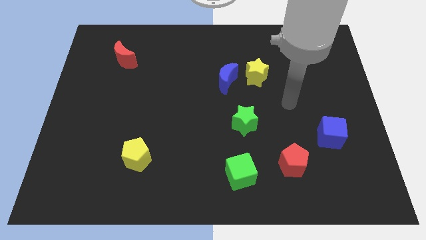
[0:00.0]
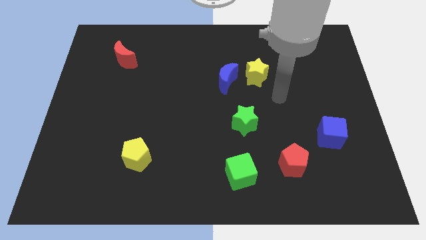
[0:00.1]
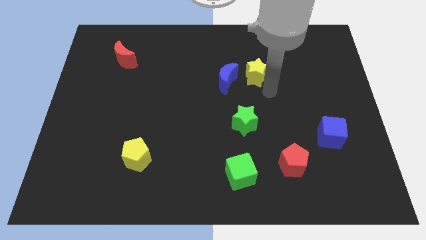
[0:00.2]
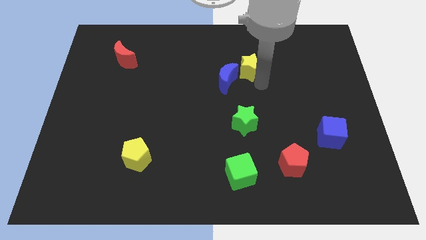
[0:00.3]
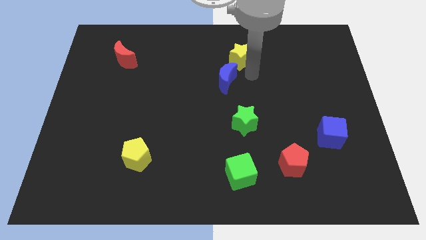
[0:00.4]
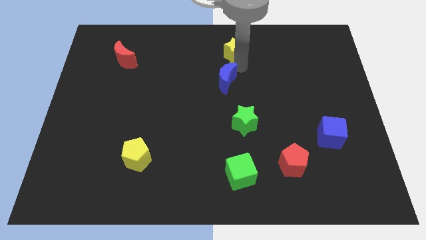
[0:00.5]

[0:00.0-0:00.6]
move the blue moon away from the yellow star

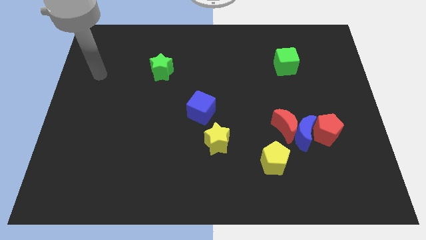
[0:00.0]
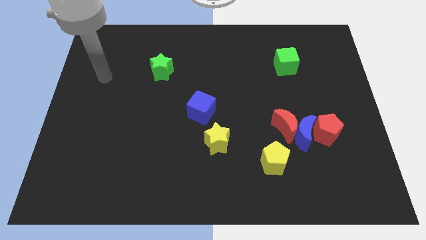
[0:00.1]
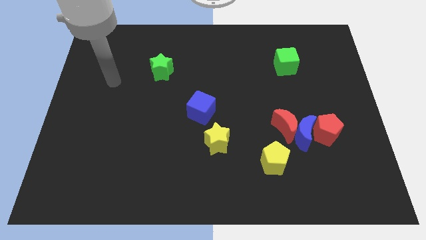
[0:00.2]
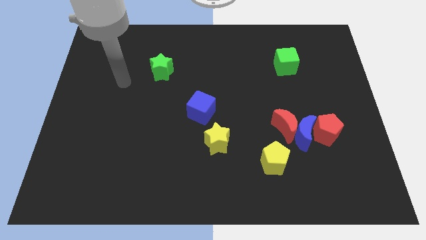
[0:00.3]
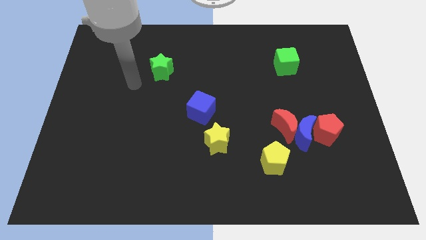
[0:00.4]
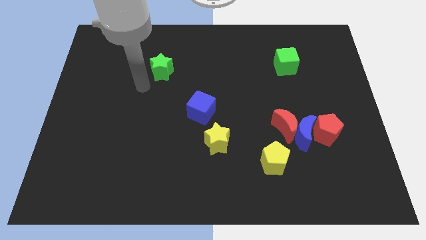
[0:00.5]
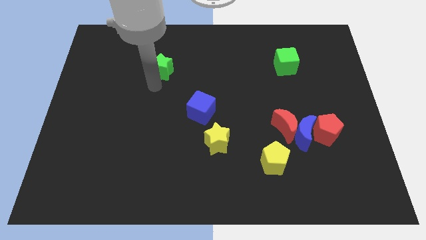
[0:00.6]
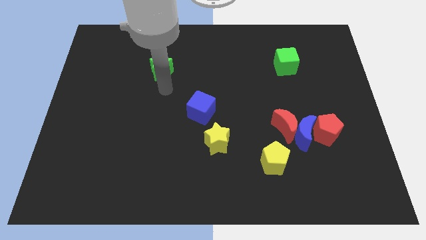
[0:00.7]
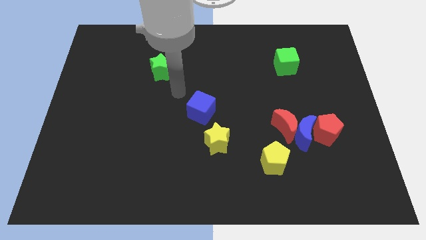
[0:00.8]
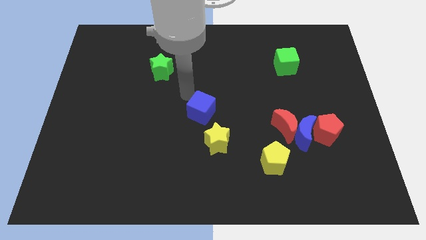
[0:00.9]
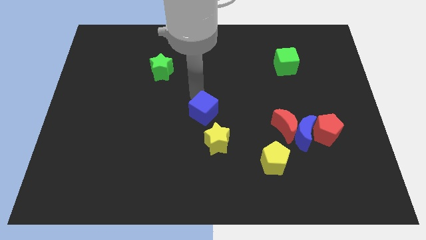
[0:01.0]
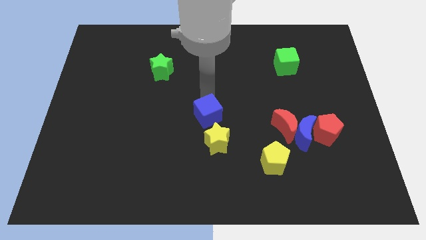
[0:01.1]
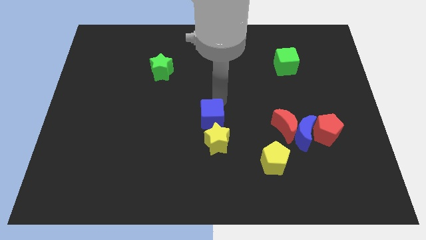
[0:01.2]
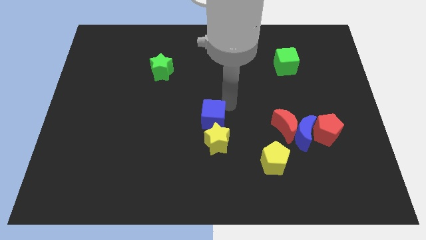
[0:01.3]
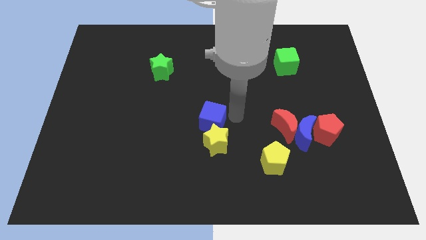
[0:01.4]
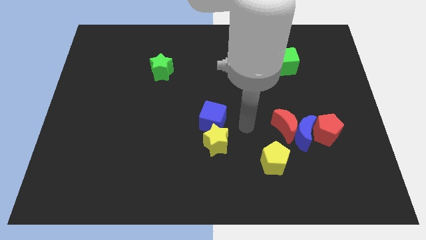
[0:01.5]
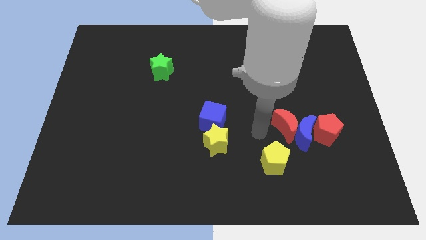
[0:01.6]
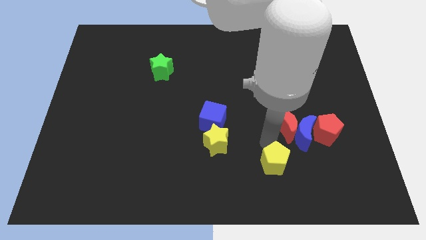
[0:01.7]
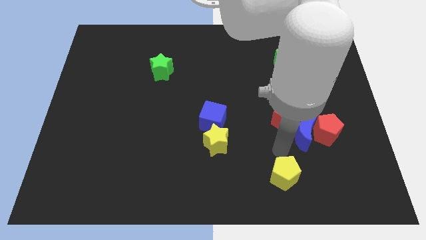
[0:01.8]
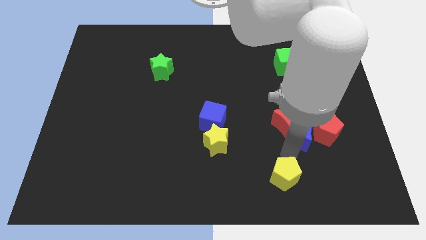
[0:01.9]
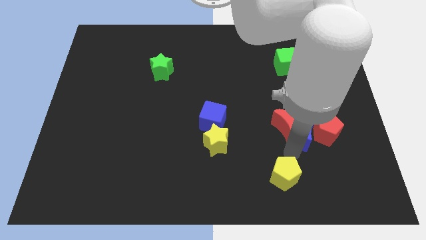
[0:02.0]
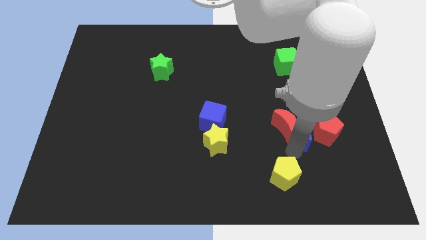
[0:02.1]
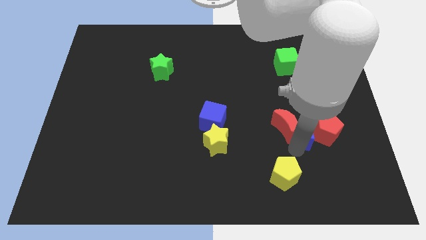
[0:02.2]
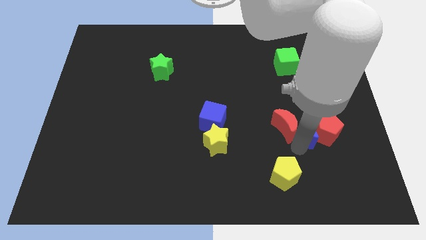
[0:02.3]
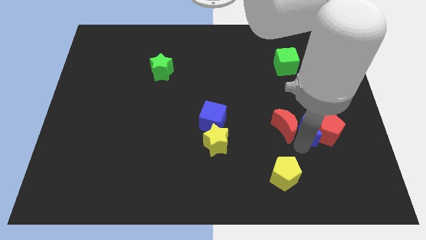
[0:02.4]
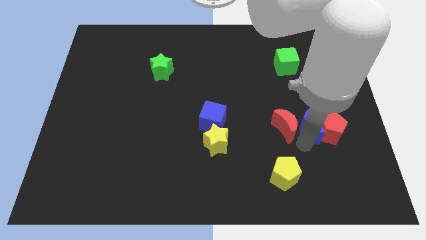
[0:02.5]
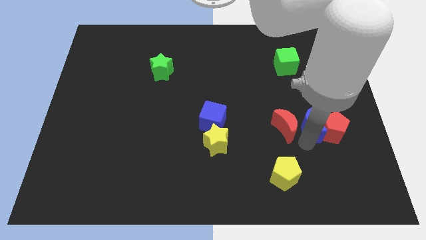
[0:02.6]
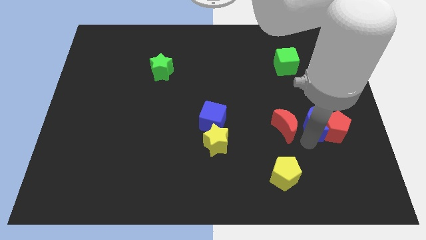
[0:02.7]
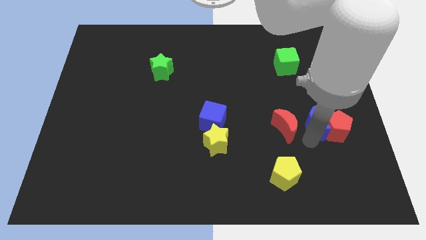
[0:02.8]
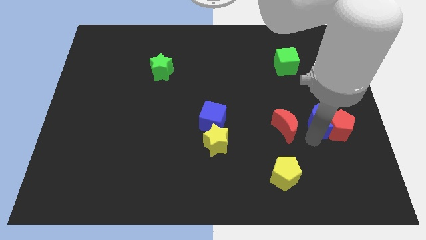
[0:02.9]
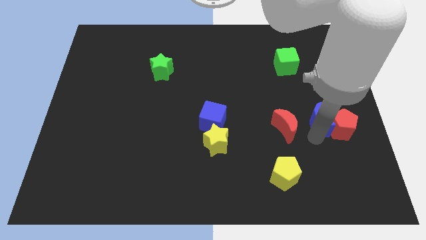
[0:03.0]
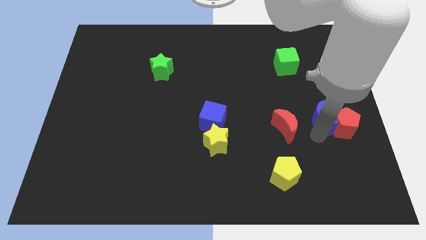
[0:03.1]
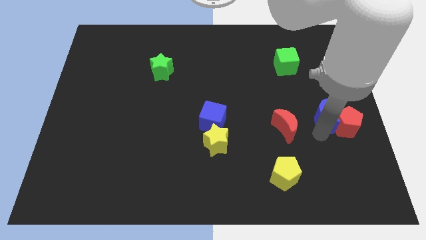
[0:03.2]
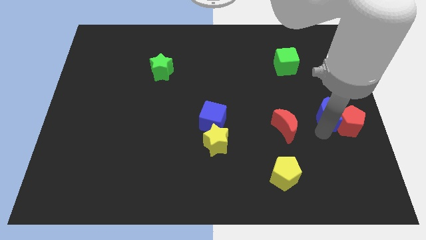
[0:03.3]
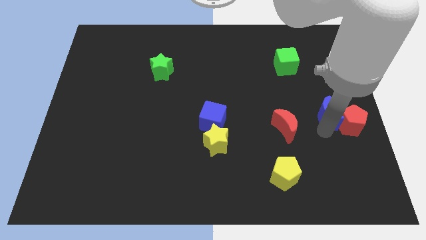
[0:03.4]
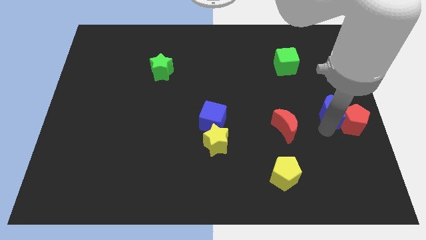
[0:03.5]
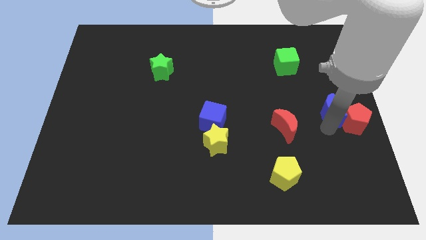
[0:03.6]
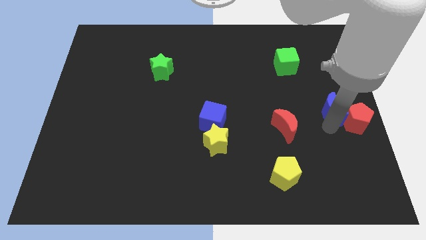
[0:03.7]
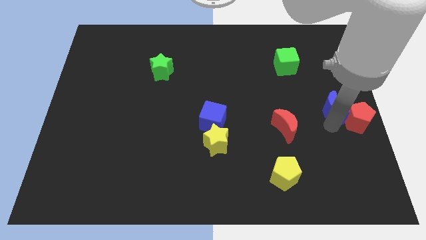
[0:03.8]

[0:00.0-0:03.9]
move the blue moon away from the red moon, red pentagon, and yellow pentagon

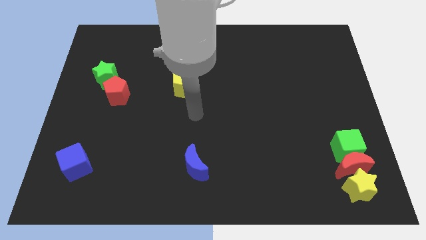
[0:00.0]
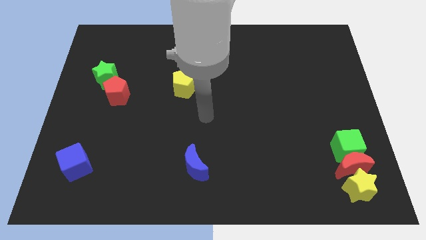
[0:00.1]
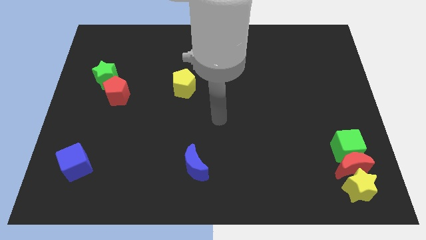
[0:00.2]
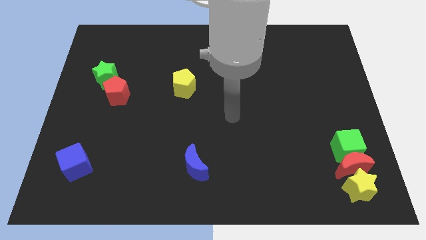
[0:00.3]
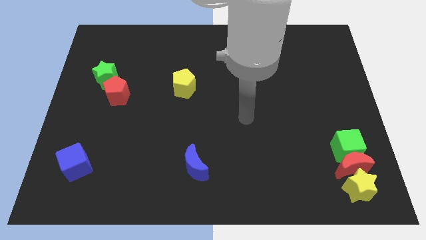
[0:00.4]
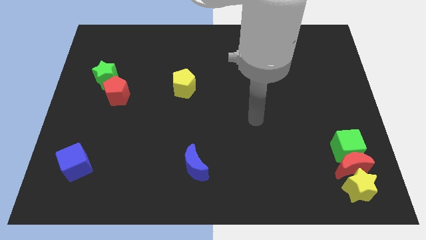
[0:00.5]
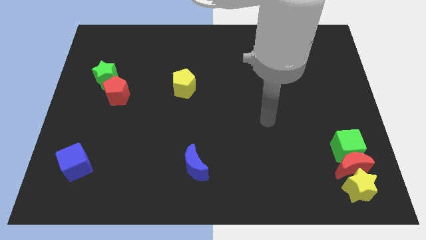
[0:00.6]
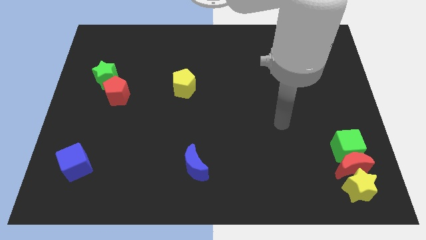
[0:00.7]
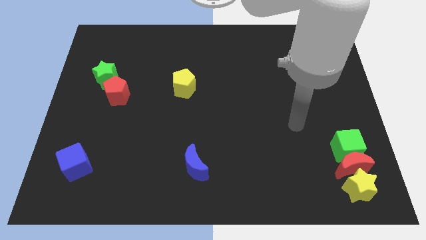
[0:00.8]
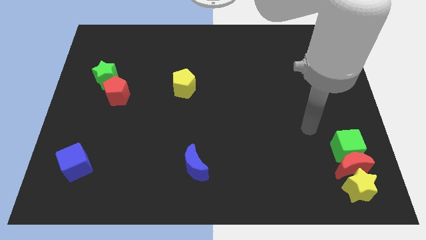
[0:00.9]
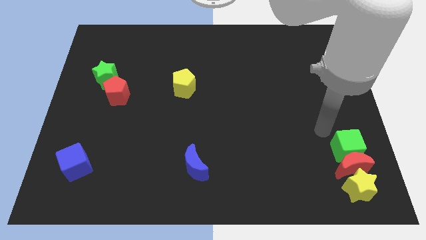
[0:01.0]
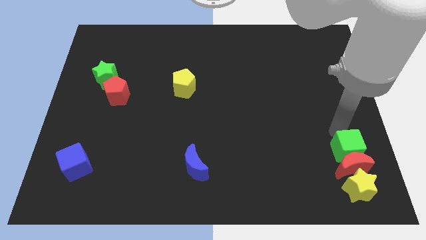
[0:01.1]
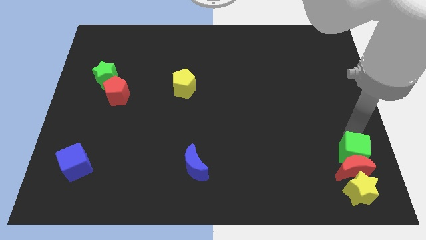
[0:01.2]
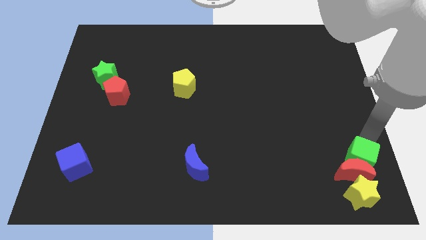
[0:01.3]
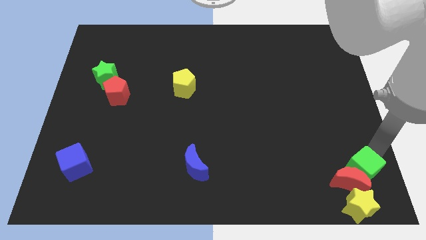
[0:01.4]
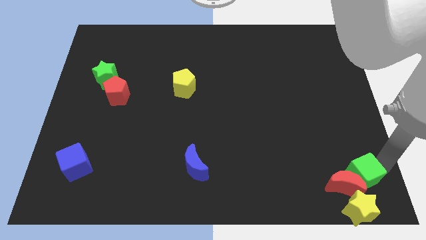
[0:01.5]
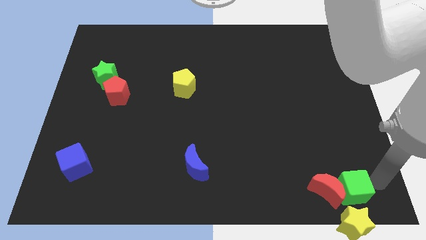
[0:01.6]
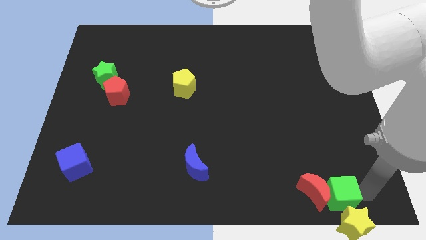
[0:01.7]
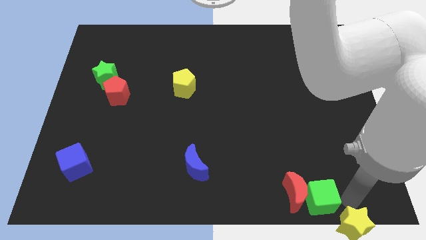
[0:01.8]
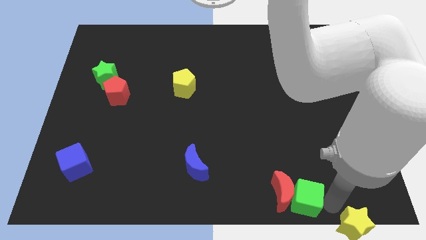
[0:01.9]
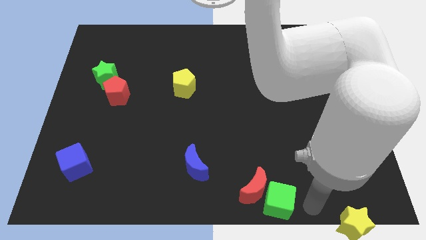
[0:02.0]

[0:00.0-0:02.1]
move the red moon away from the green cube and yellow star

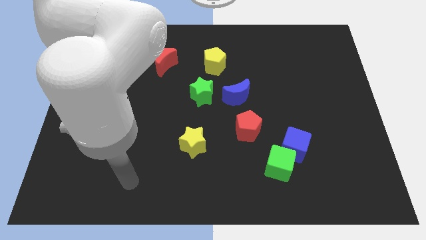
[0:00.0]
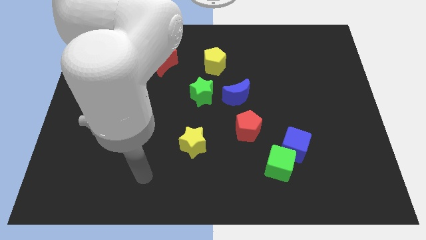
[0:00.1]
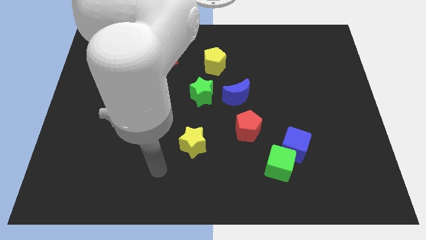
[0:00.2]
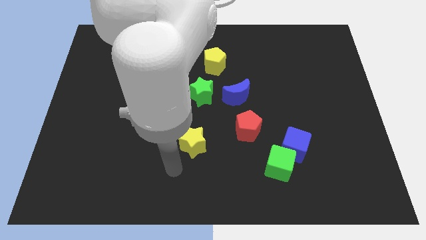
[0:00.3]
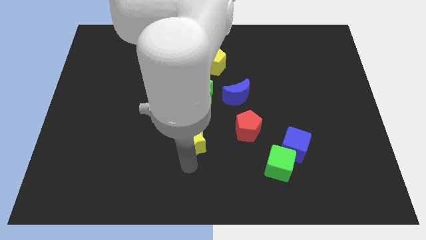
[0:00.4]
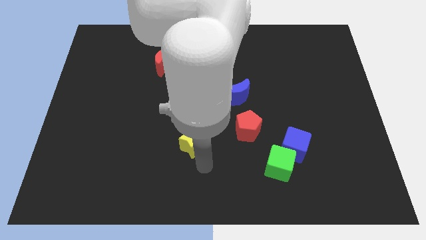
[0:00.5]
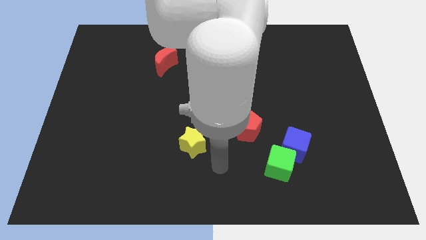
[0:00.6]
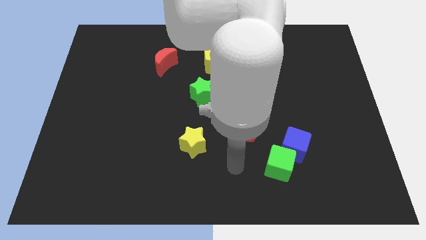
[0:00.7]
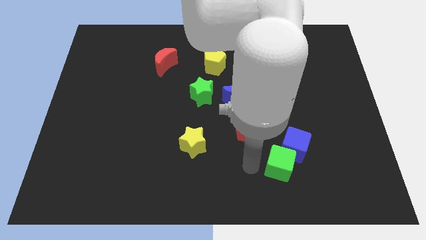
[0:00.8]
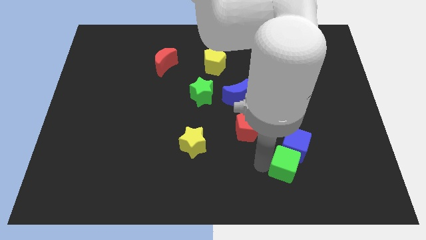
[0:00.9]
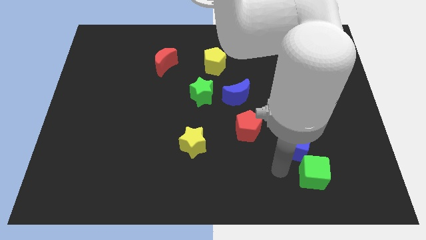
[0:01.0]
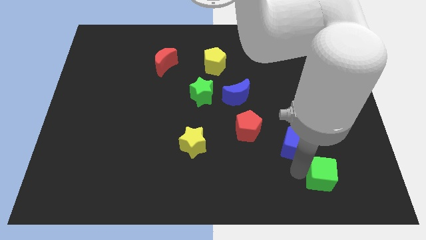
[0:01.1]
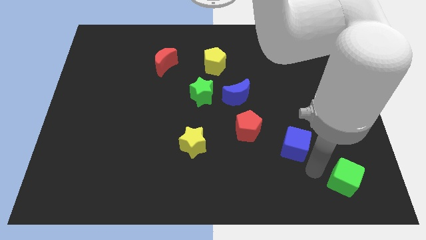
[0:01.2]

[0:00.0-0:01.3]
separate the blue cube from the green cube

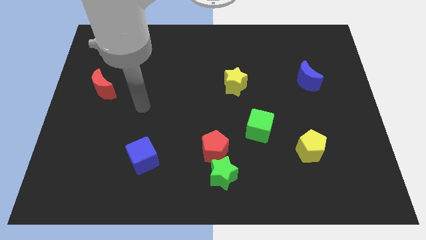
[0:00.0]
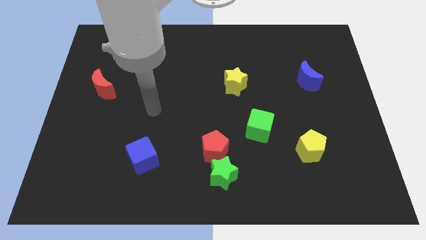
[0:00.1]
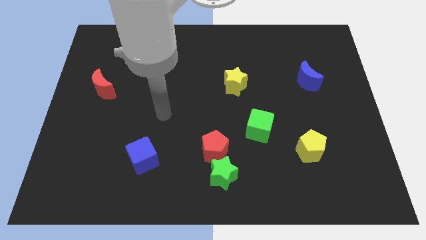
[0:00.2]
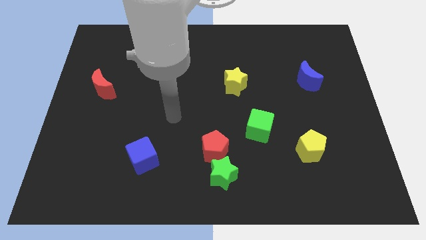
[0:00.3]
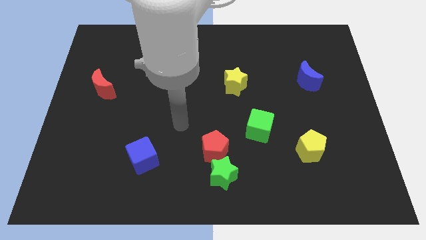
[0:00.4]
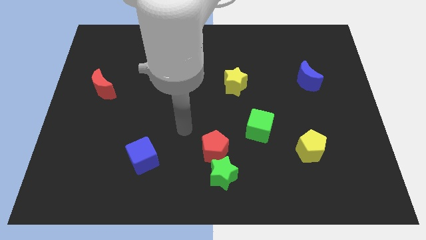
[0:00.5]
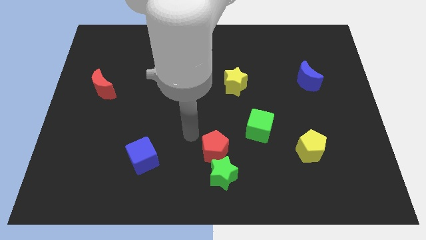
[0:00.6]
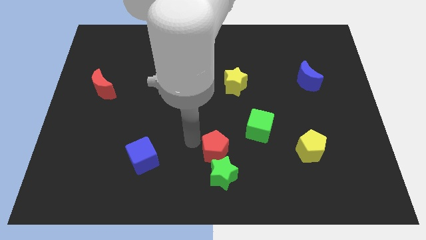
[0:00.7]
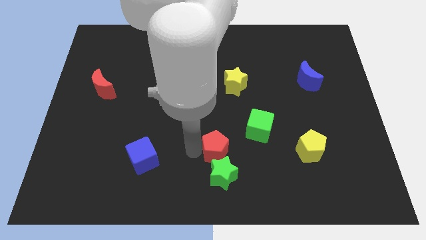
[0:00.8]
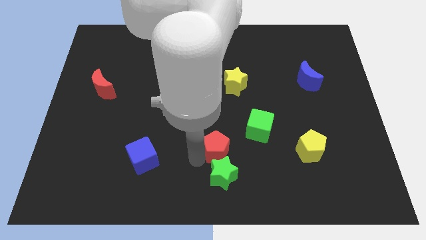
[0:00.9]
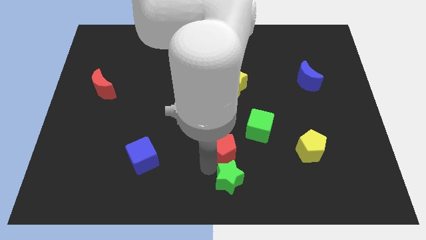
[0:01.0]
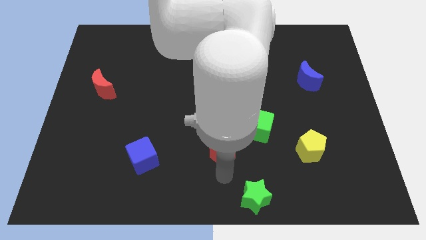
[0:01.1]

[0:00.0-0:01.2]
separate the red pentagon from the green star

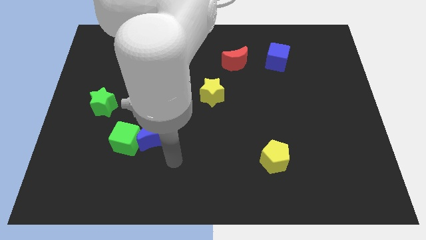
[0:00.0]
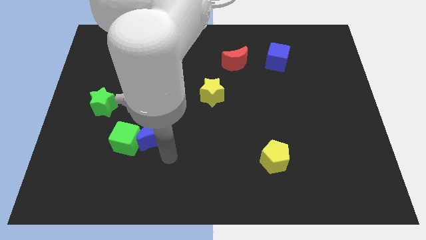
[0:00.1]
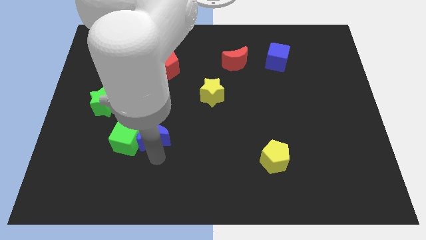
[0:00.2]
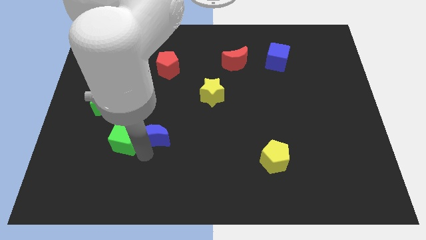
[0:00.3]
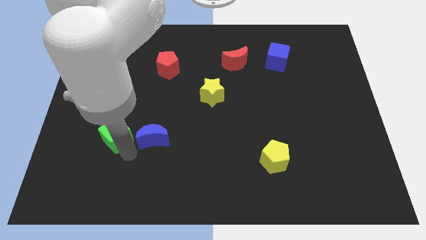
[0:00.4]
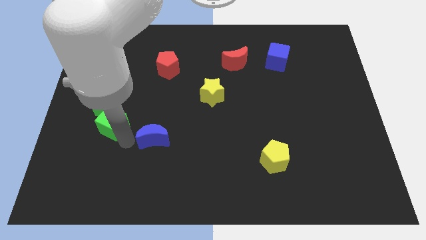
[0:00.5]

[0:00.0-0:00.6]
separate the blue moon from the green cube
